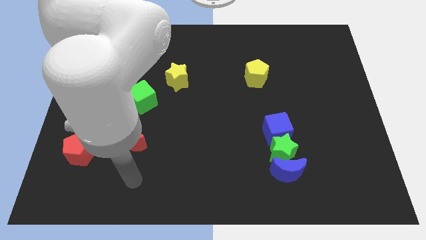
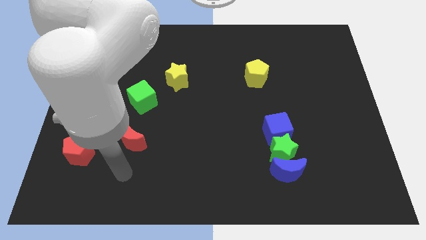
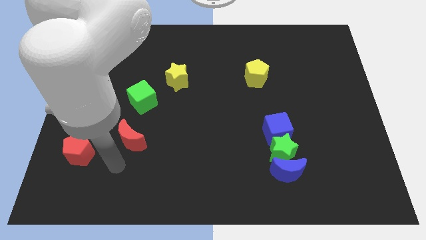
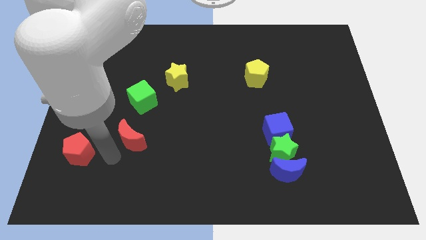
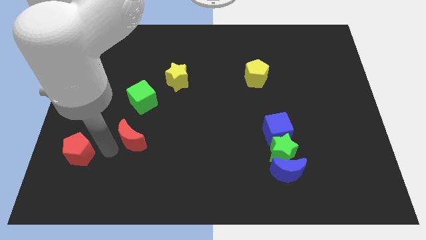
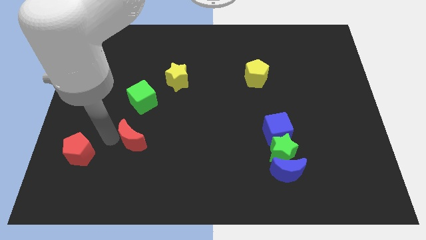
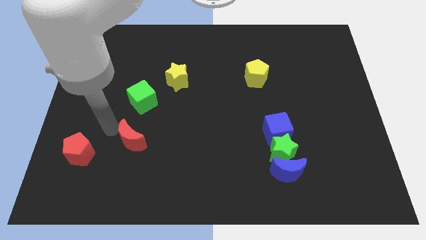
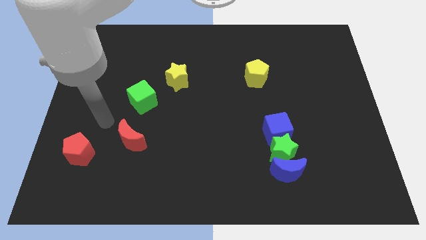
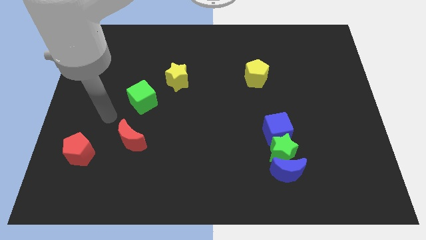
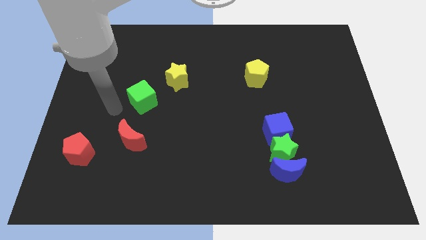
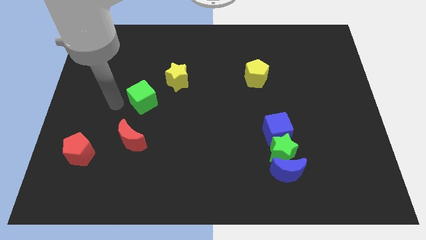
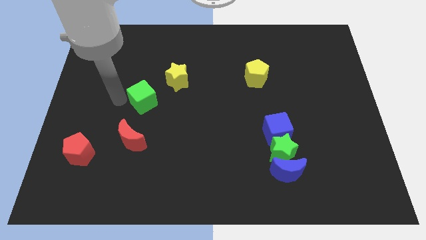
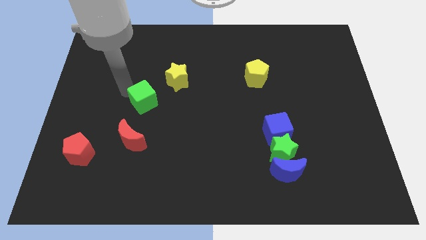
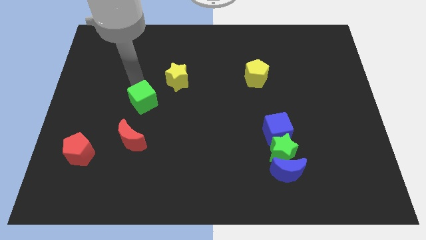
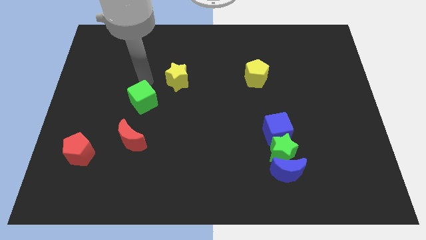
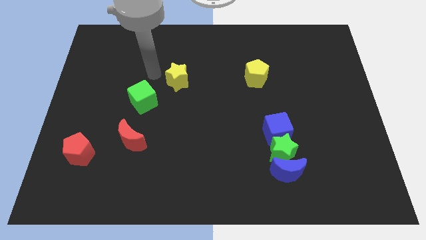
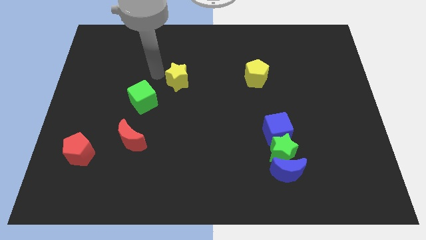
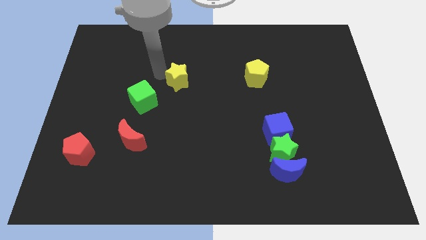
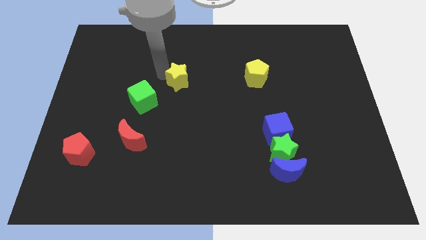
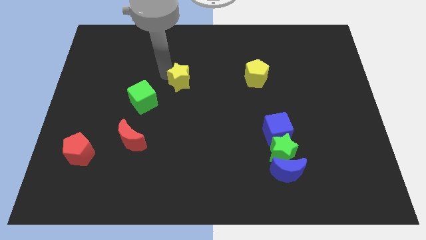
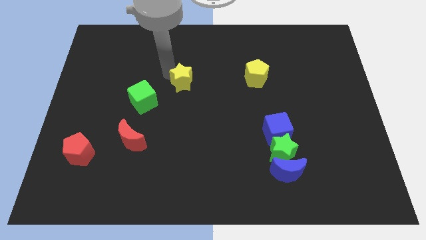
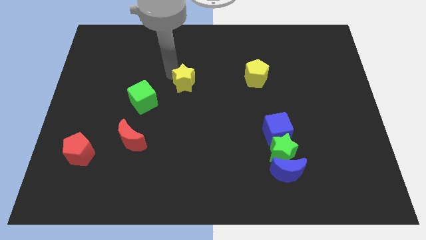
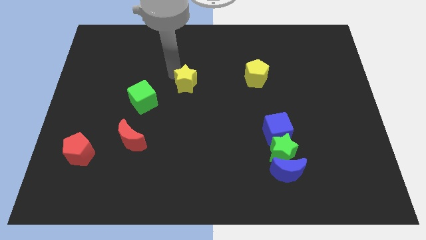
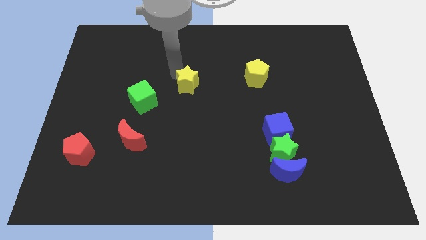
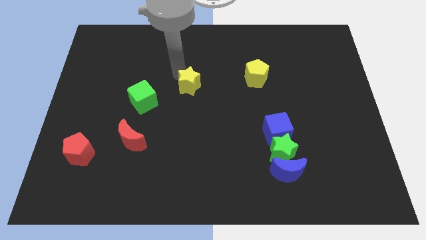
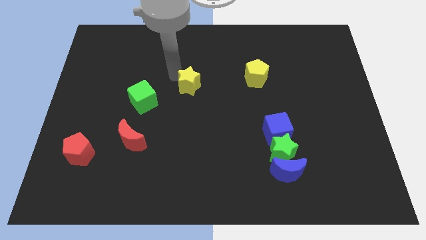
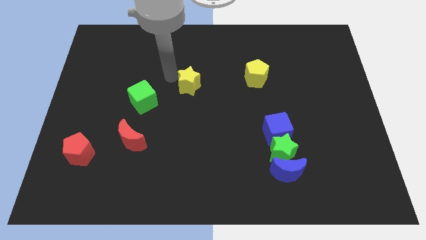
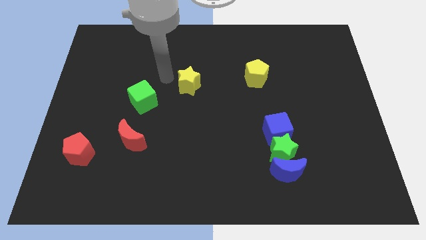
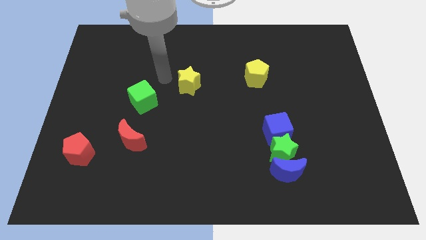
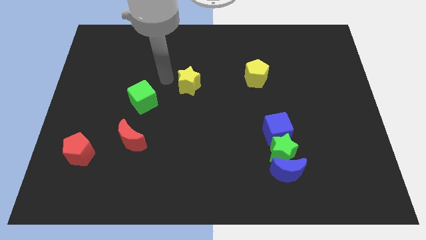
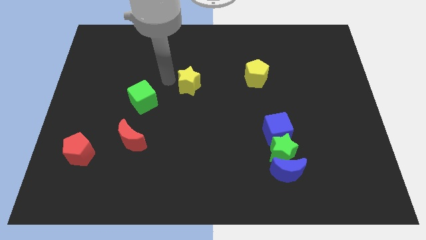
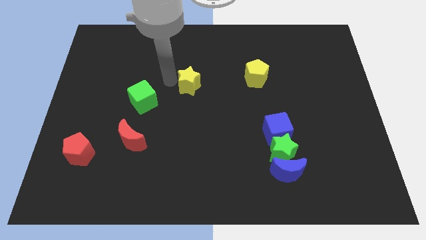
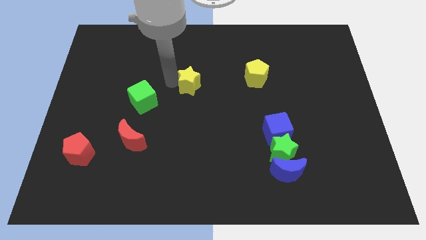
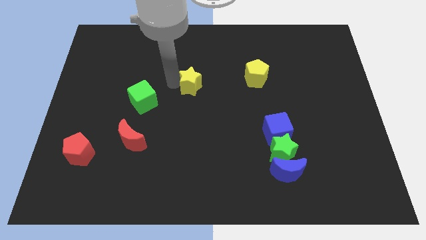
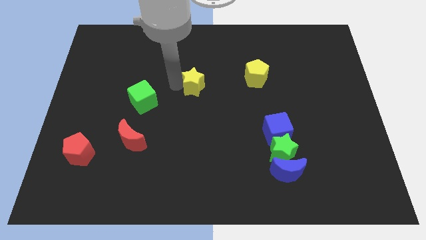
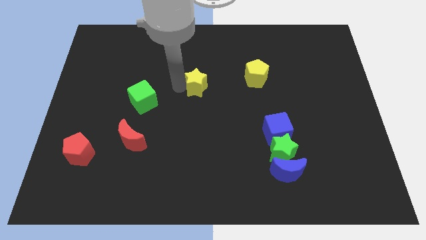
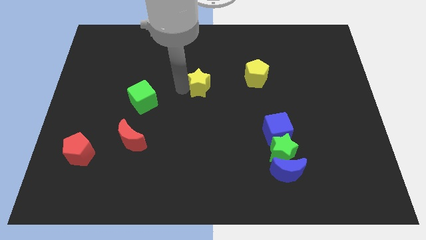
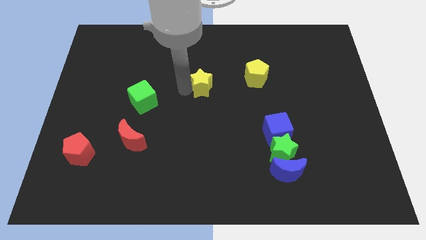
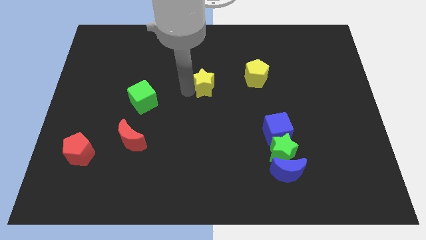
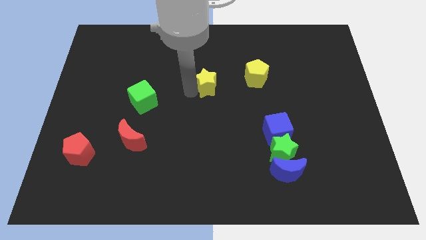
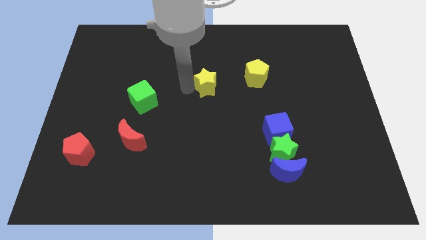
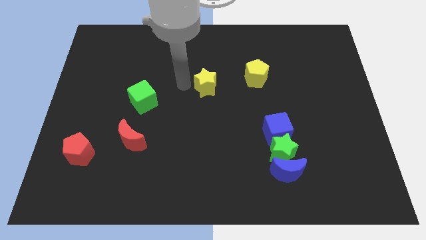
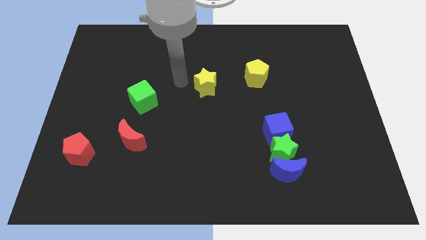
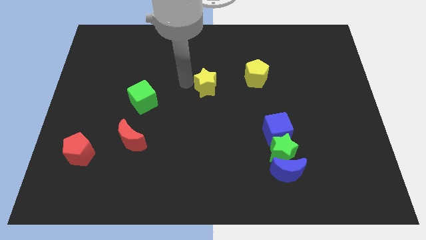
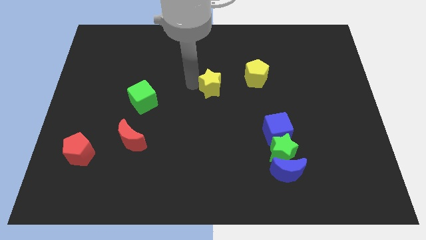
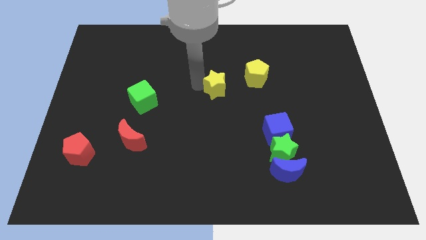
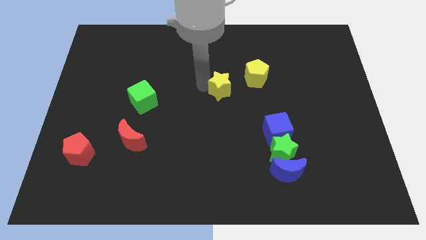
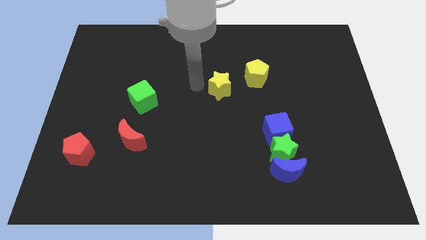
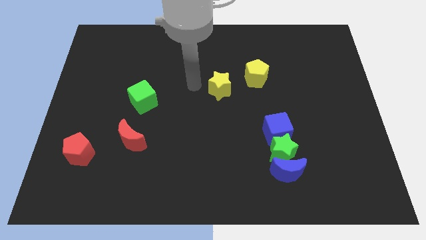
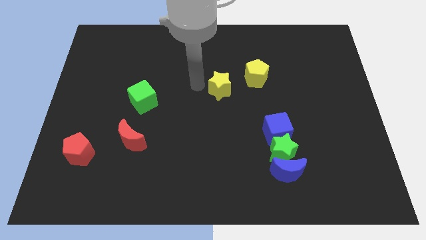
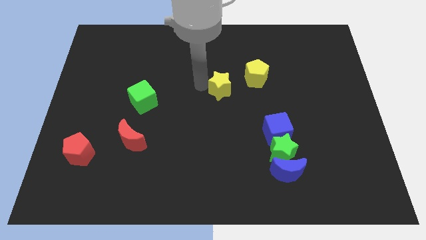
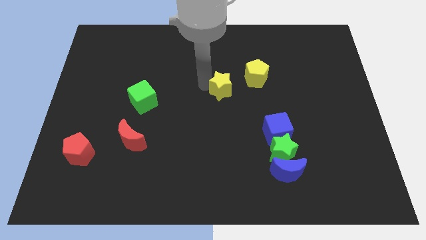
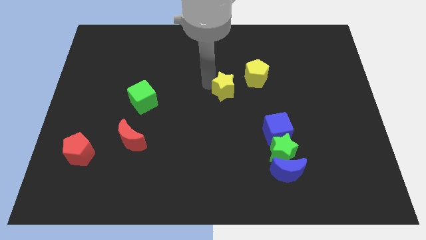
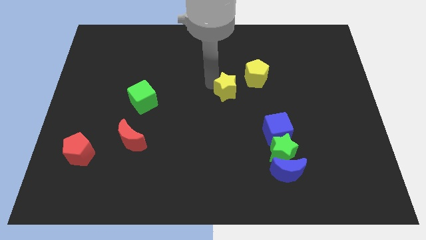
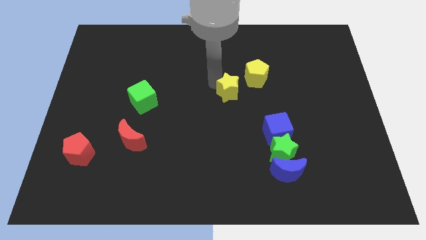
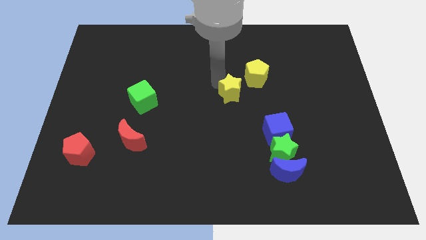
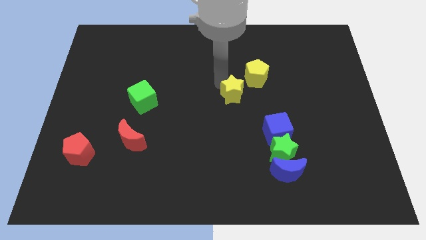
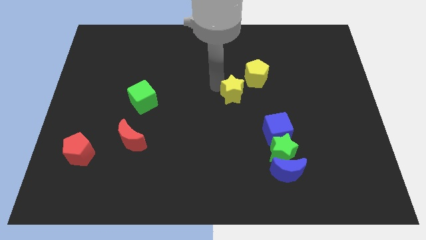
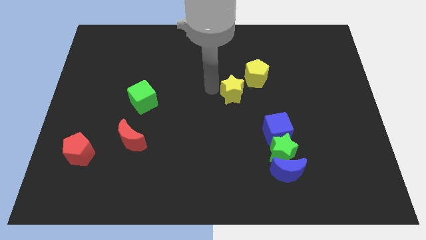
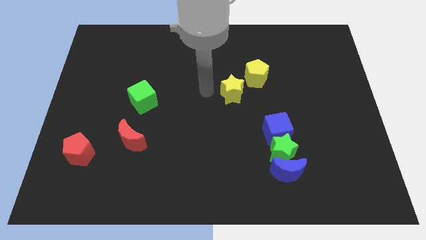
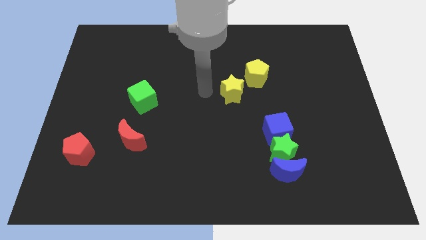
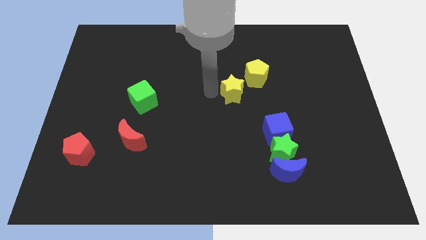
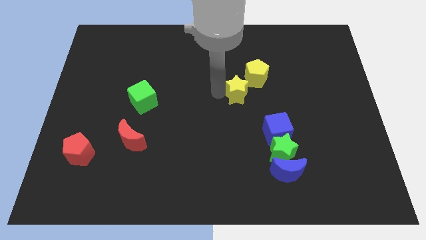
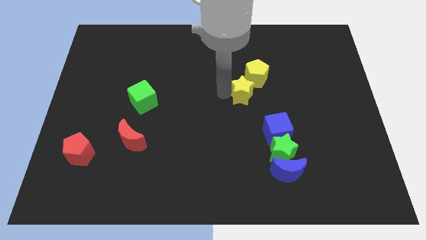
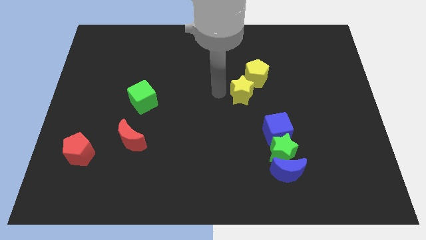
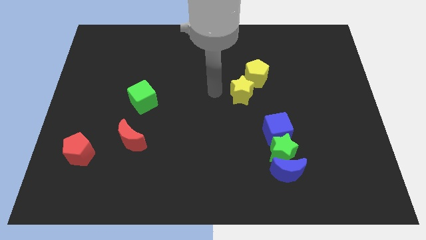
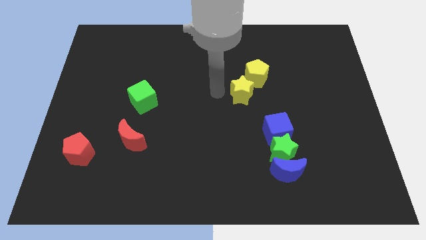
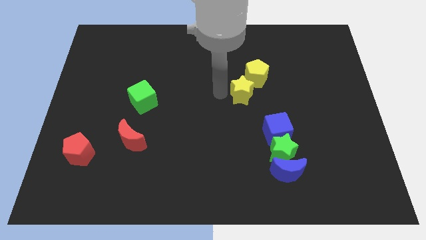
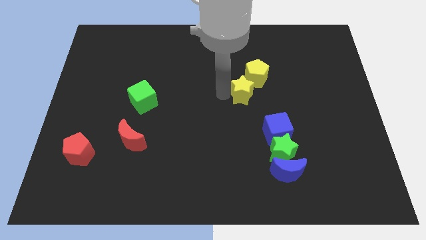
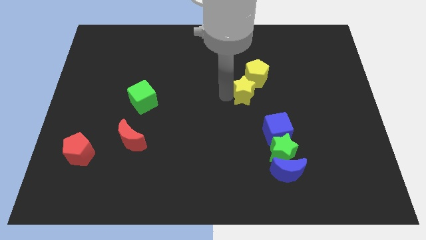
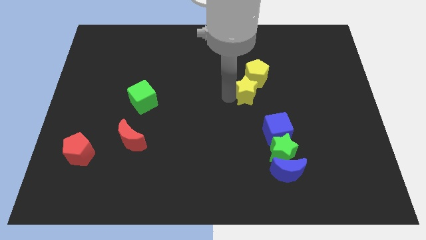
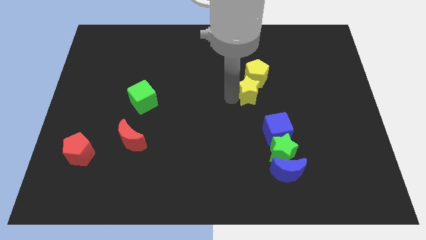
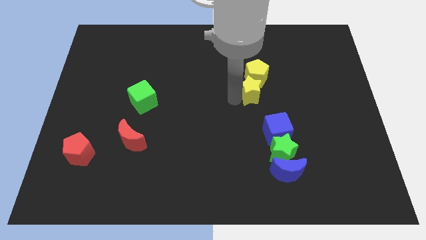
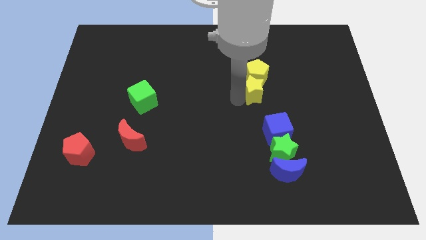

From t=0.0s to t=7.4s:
move the yellow star above the blue cube

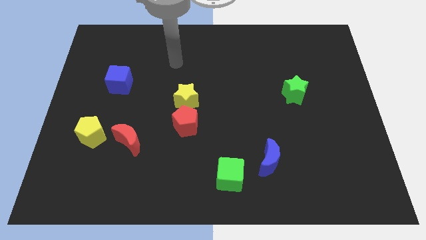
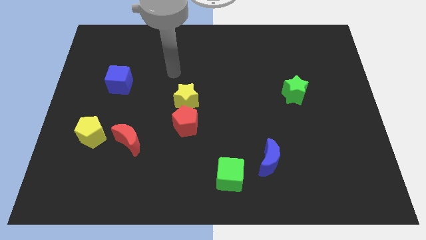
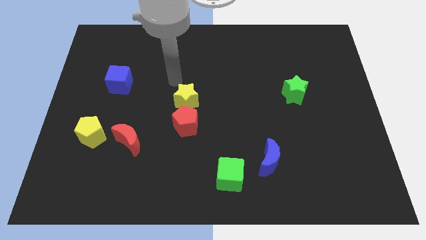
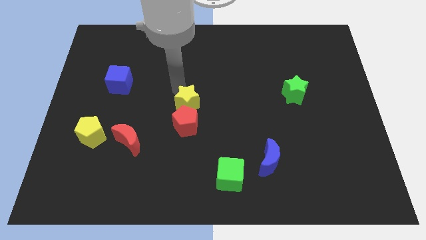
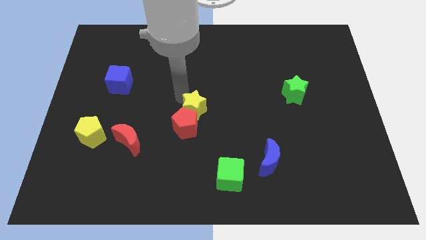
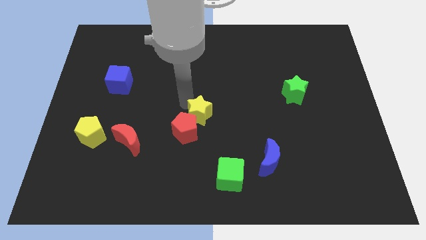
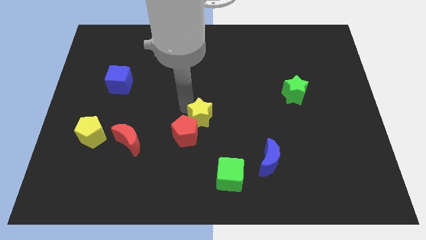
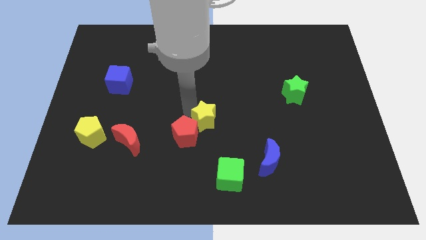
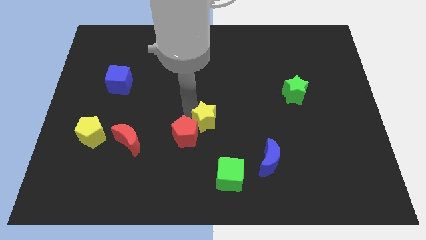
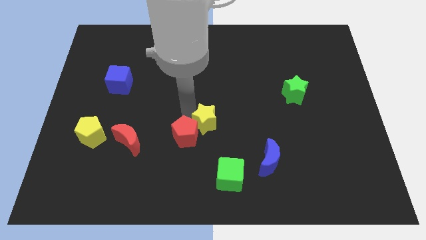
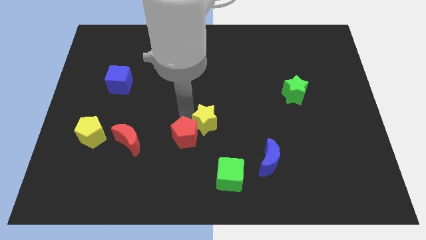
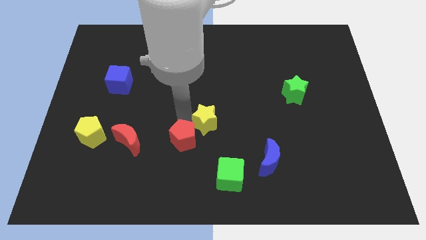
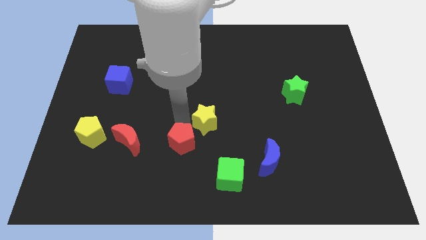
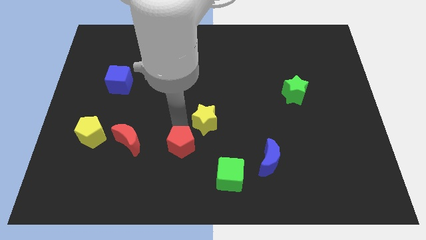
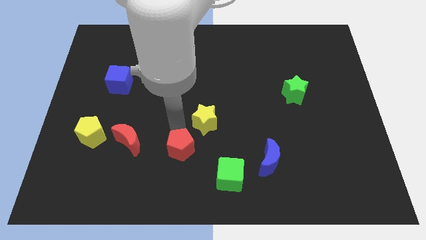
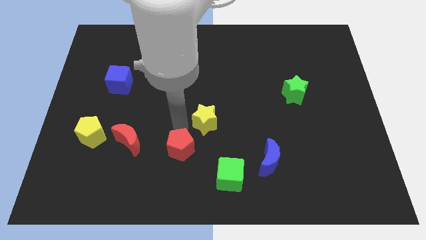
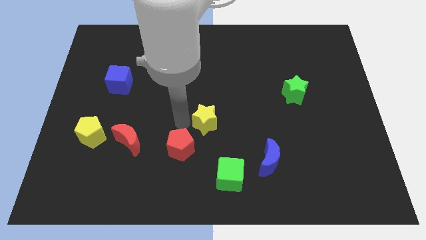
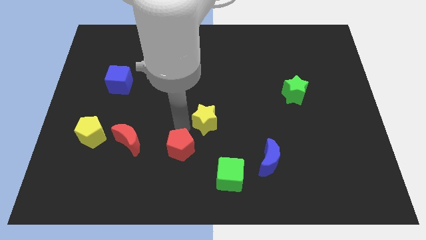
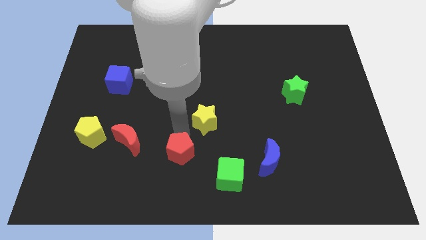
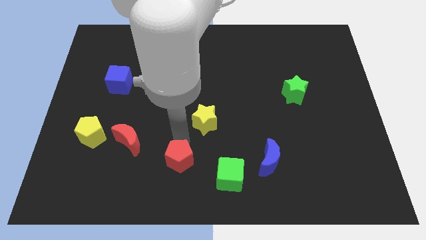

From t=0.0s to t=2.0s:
push the red pentagon to the left side of the green cube
